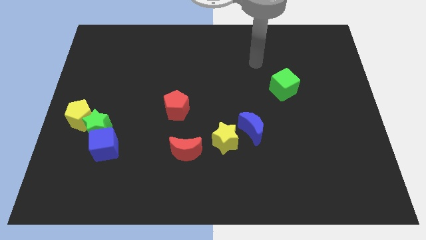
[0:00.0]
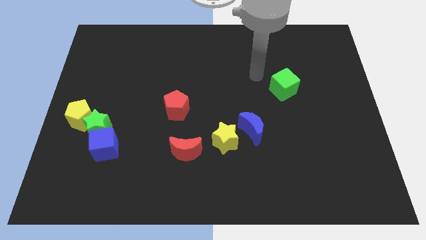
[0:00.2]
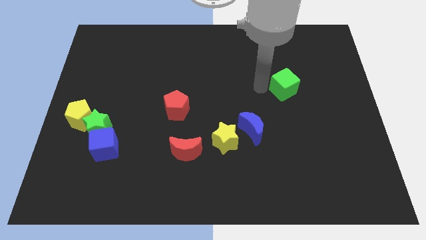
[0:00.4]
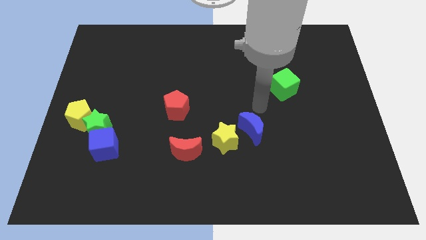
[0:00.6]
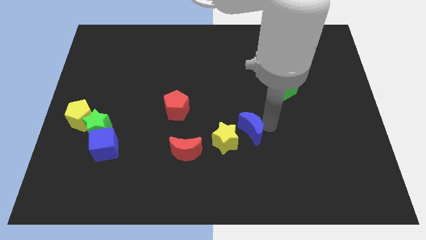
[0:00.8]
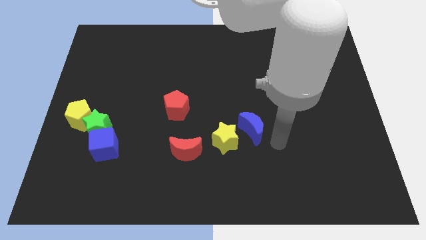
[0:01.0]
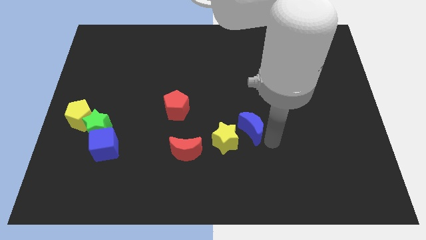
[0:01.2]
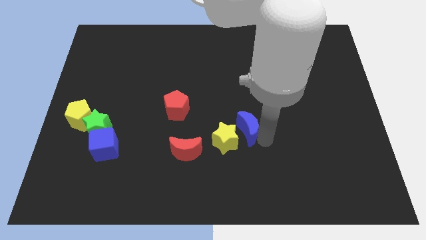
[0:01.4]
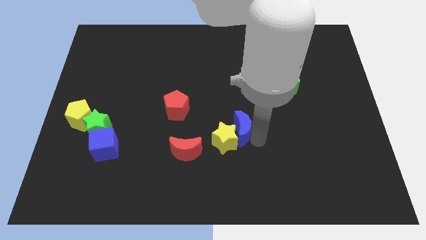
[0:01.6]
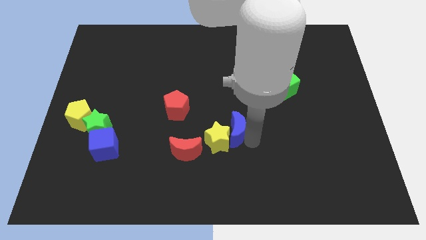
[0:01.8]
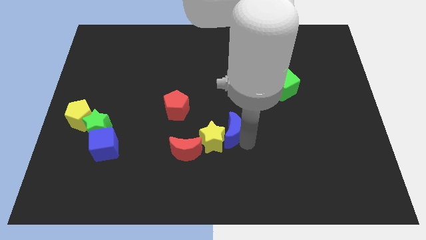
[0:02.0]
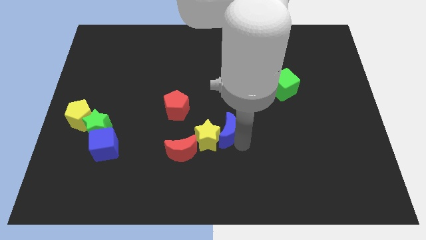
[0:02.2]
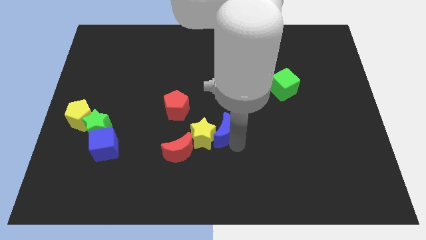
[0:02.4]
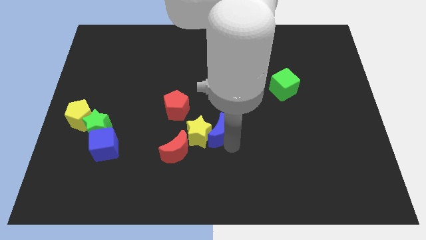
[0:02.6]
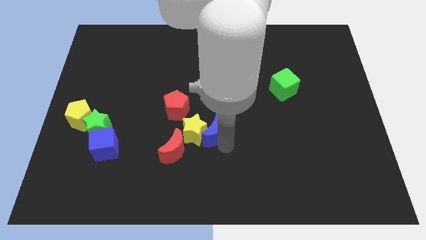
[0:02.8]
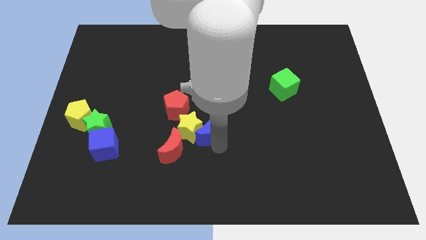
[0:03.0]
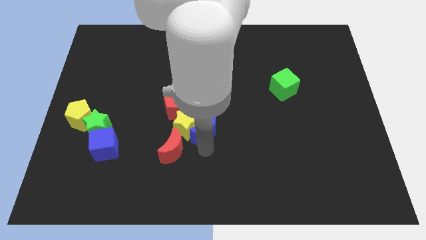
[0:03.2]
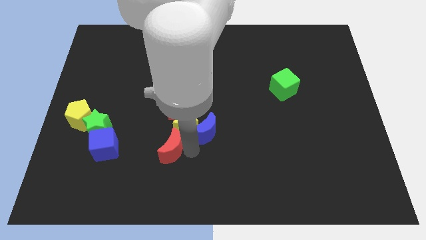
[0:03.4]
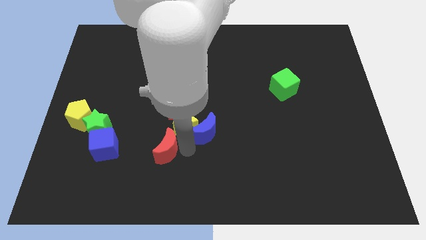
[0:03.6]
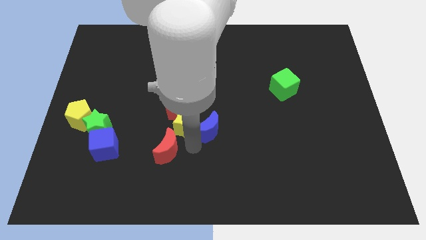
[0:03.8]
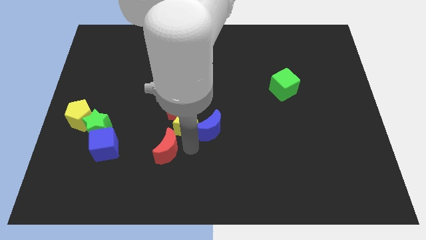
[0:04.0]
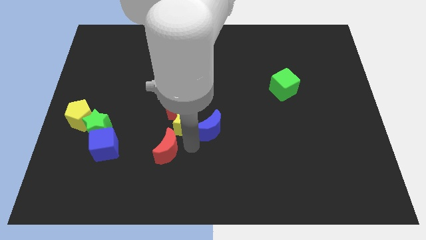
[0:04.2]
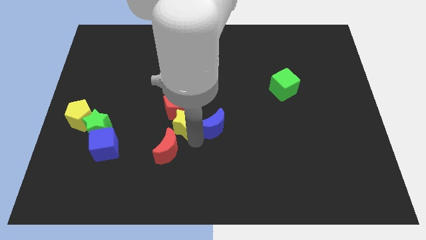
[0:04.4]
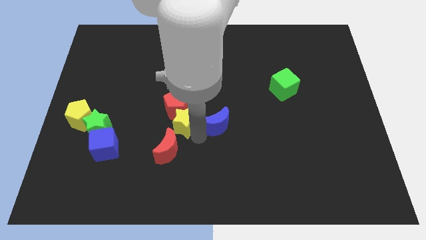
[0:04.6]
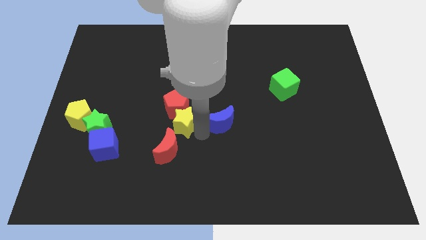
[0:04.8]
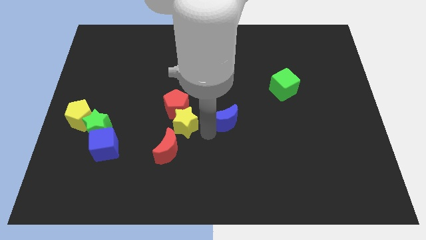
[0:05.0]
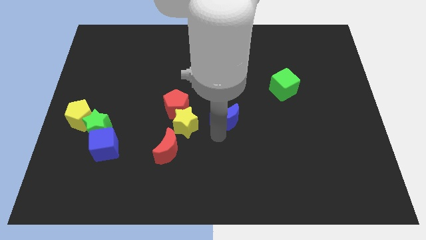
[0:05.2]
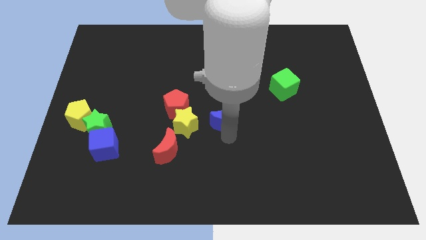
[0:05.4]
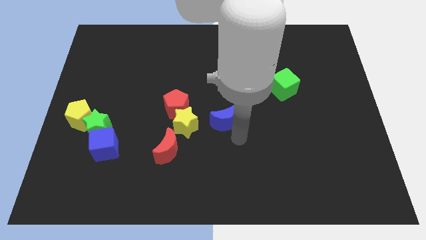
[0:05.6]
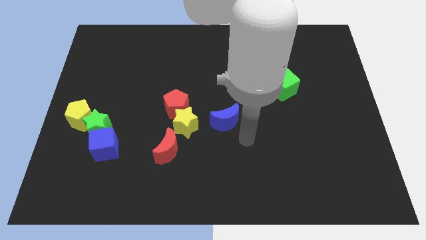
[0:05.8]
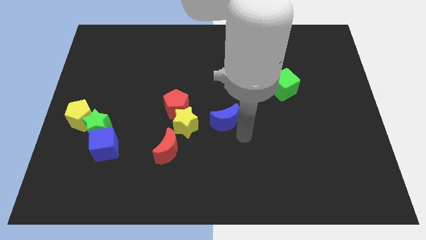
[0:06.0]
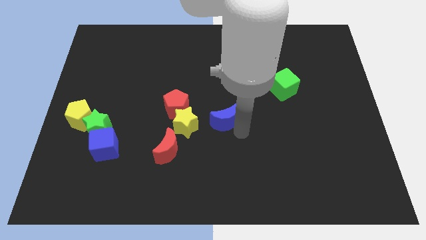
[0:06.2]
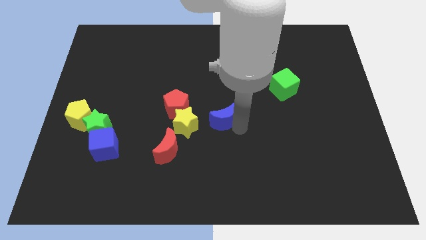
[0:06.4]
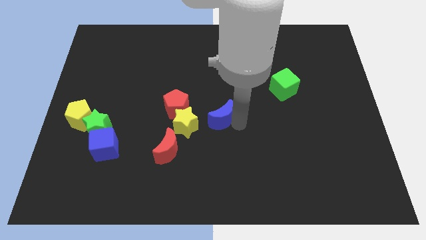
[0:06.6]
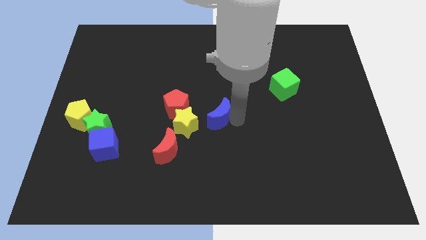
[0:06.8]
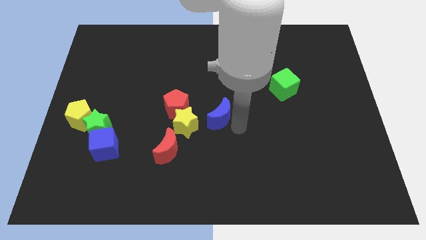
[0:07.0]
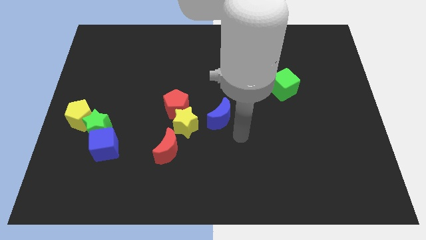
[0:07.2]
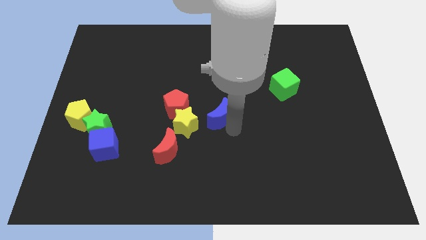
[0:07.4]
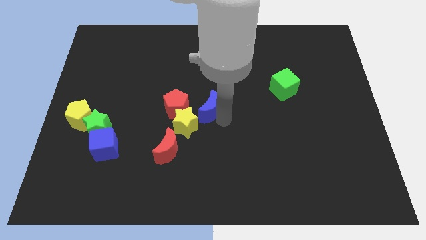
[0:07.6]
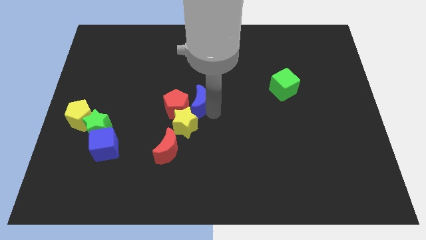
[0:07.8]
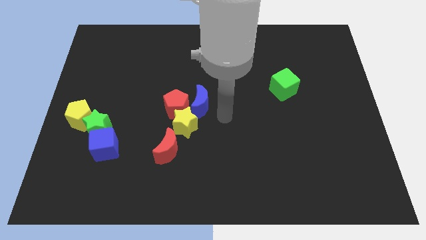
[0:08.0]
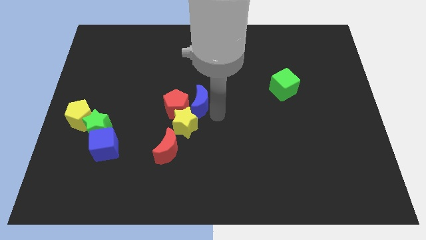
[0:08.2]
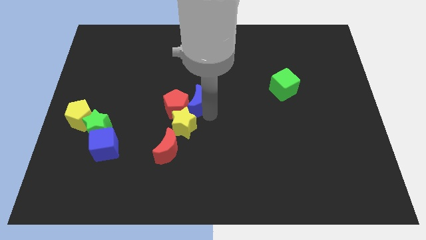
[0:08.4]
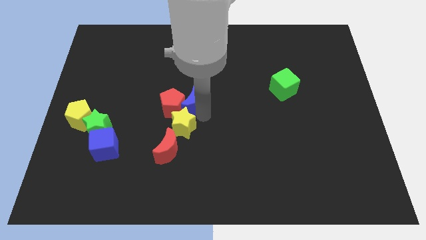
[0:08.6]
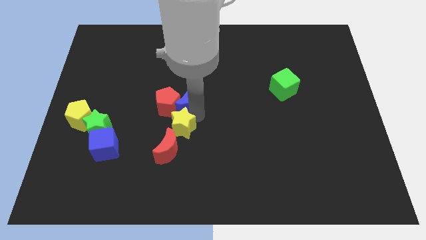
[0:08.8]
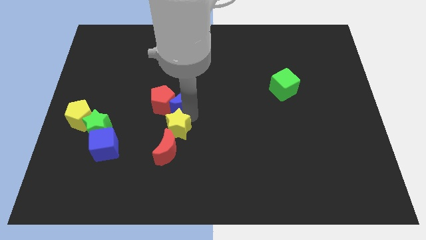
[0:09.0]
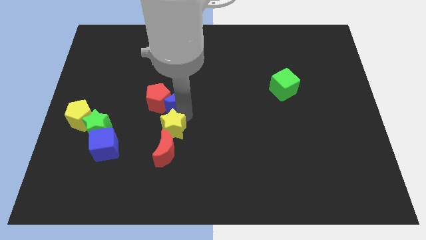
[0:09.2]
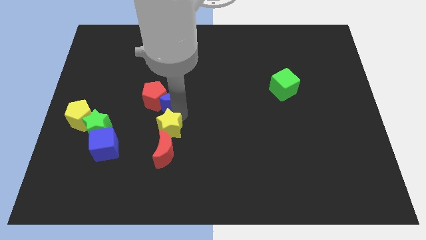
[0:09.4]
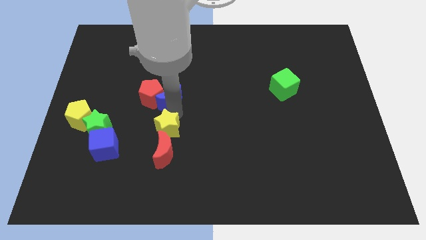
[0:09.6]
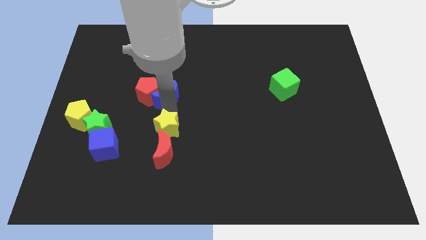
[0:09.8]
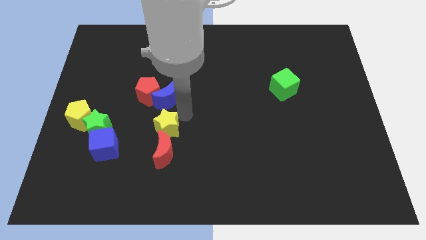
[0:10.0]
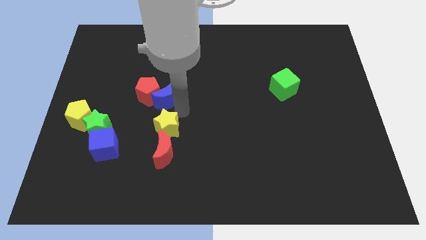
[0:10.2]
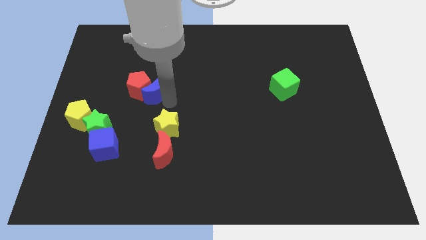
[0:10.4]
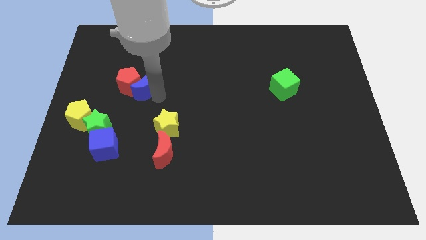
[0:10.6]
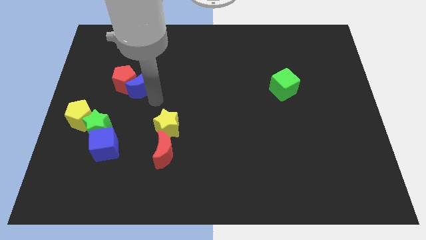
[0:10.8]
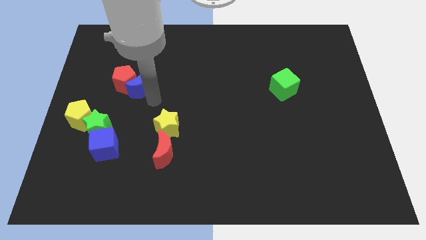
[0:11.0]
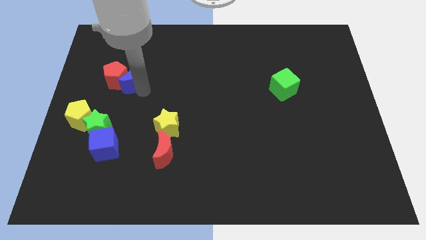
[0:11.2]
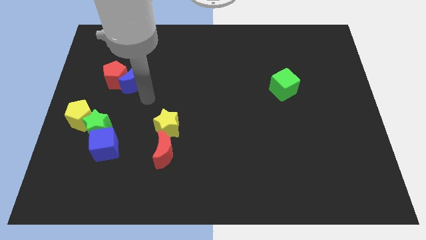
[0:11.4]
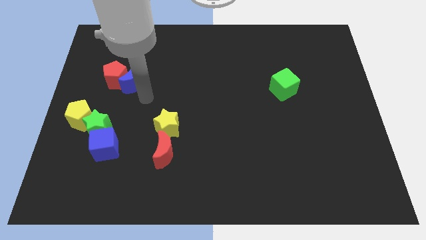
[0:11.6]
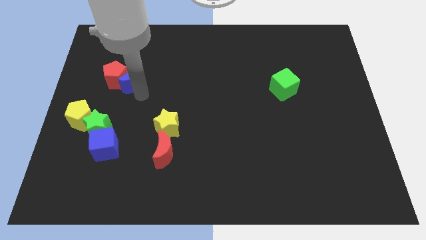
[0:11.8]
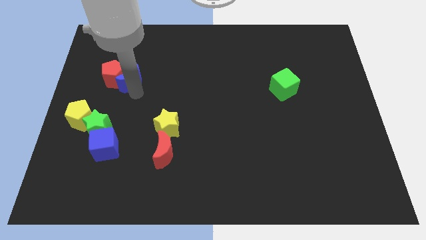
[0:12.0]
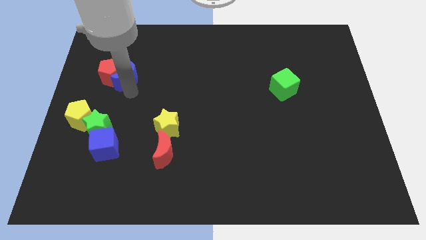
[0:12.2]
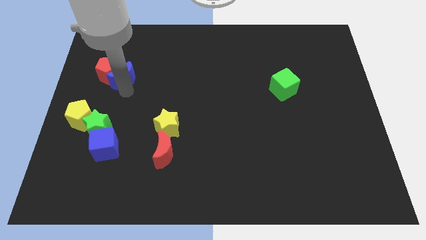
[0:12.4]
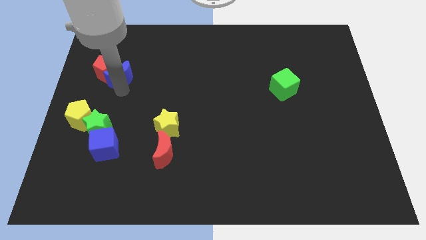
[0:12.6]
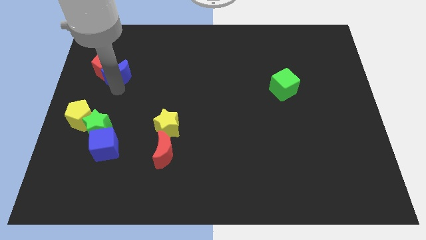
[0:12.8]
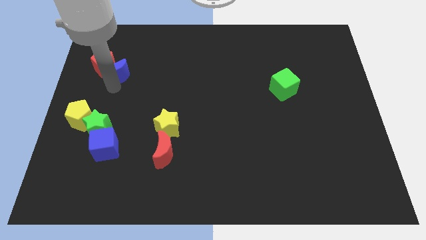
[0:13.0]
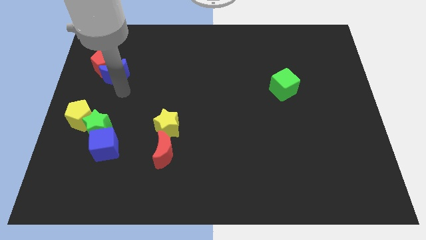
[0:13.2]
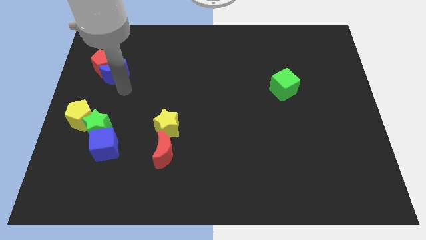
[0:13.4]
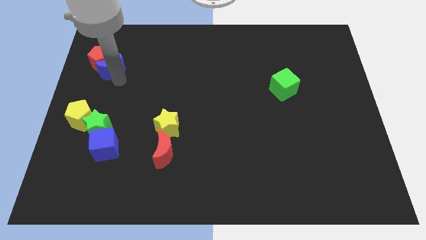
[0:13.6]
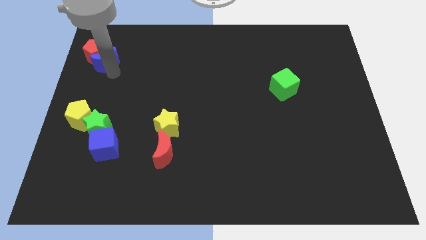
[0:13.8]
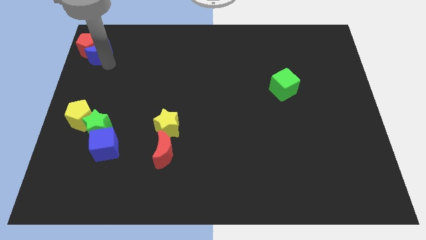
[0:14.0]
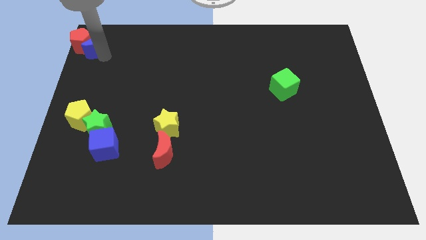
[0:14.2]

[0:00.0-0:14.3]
push the blue moon to the upper left corner
